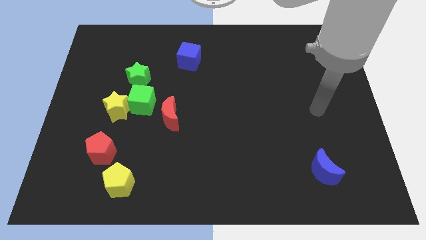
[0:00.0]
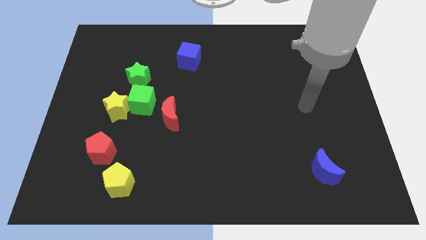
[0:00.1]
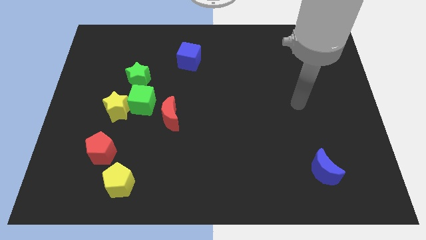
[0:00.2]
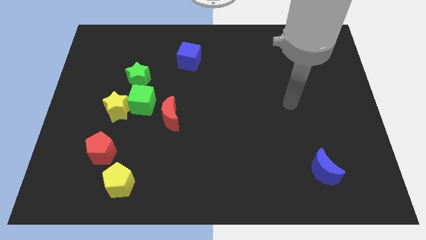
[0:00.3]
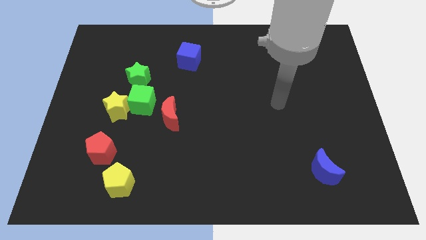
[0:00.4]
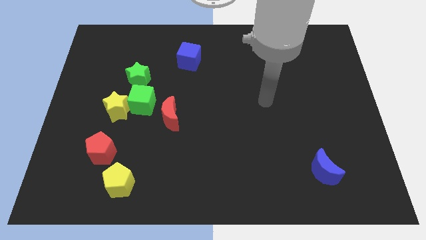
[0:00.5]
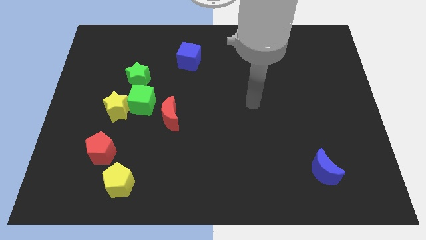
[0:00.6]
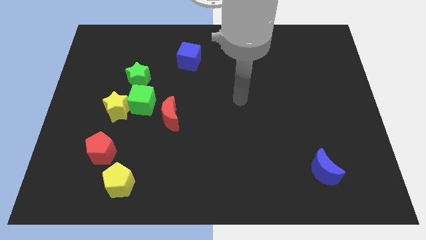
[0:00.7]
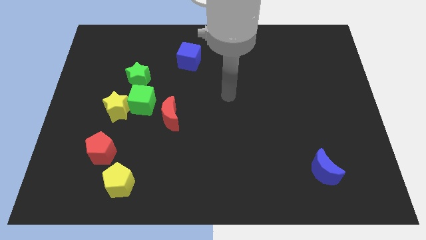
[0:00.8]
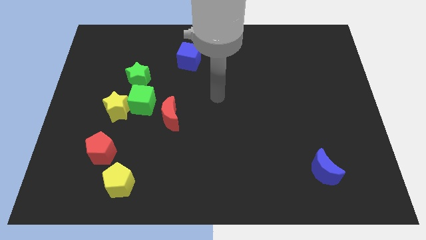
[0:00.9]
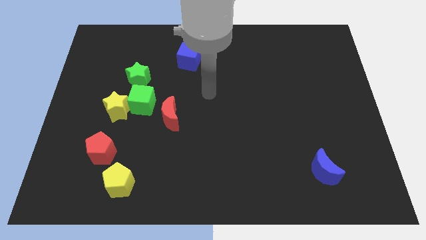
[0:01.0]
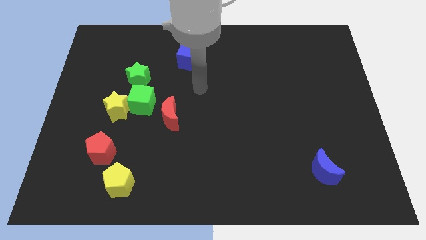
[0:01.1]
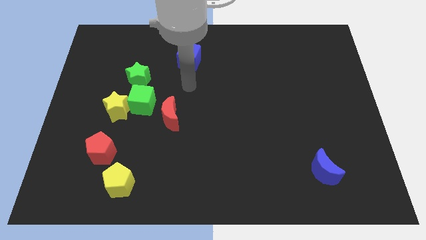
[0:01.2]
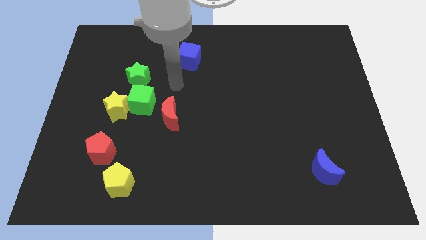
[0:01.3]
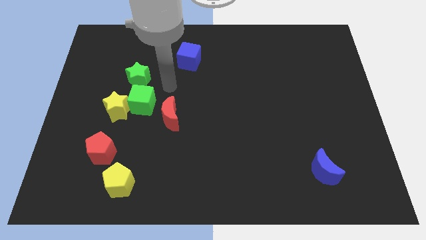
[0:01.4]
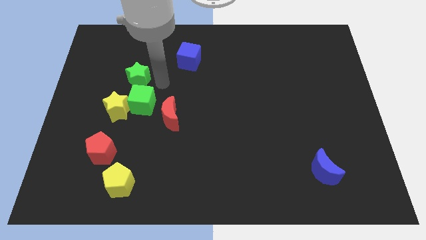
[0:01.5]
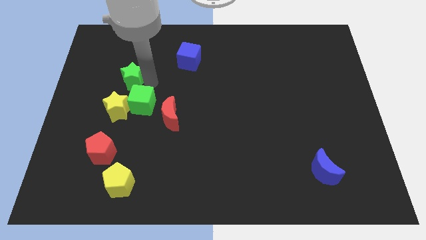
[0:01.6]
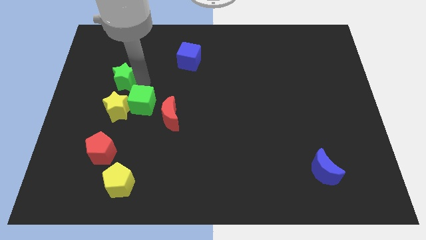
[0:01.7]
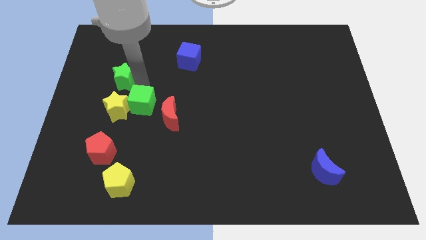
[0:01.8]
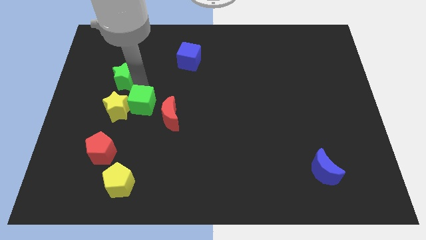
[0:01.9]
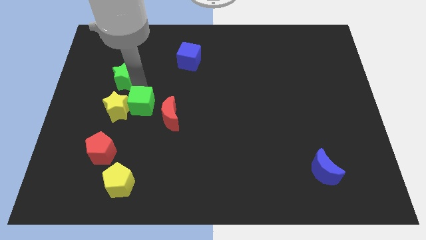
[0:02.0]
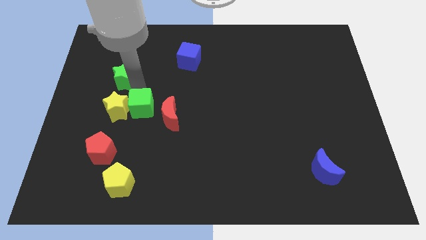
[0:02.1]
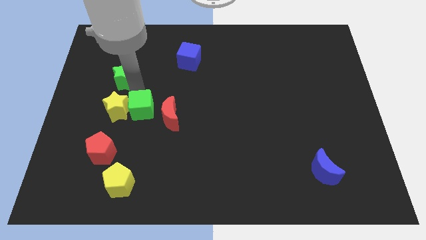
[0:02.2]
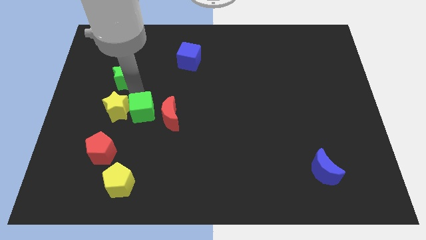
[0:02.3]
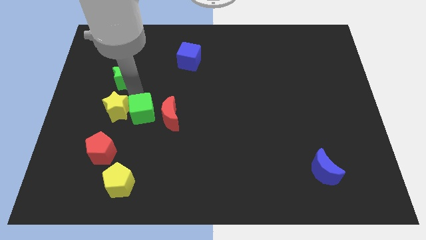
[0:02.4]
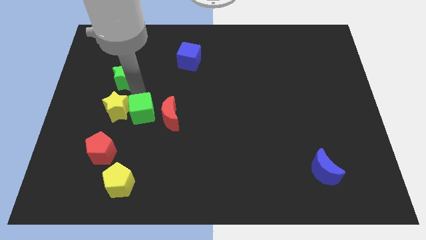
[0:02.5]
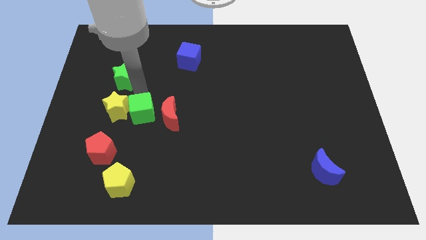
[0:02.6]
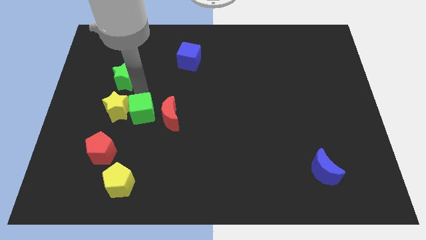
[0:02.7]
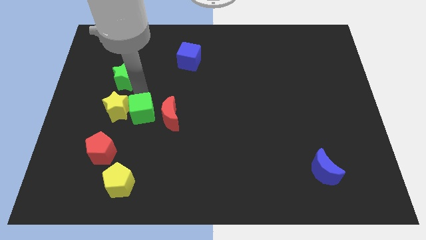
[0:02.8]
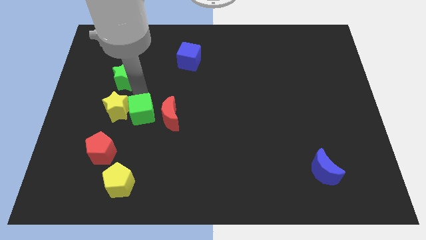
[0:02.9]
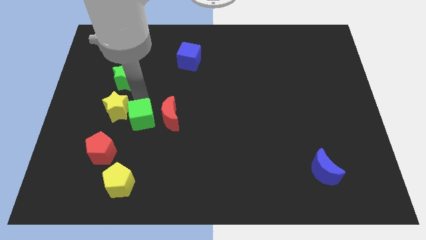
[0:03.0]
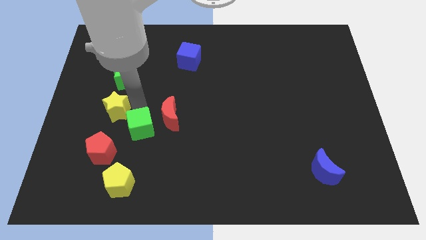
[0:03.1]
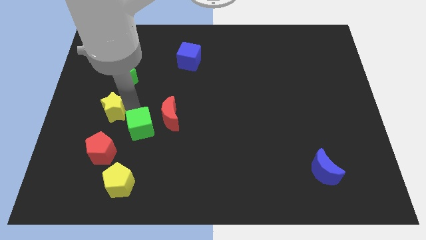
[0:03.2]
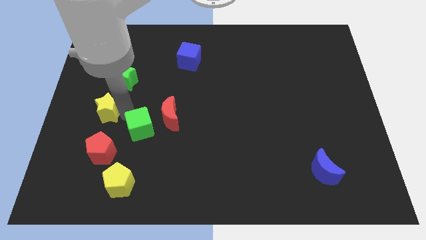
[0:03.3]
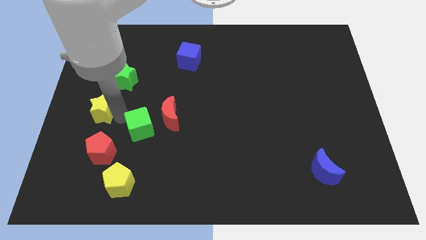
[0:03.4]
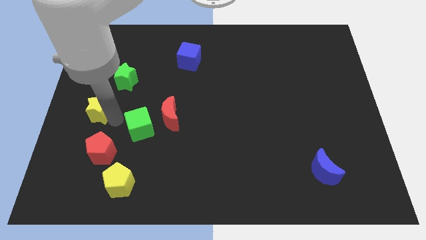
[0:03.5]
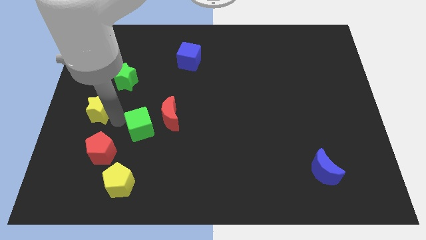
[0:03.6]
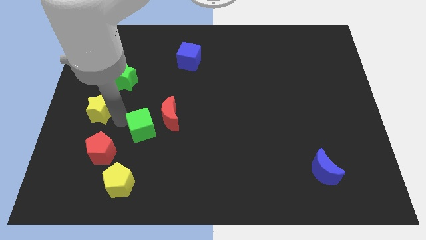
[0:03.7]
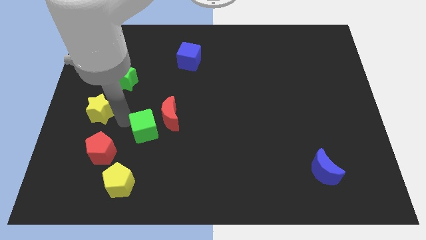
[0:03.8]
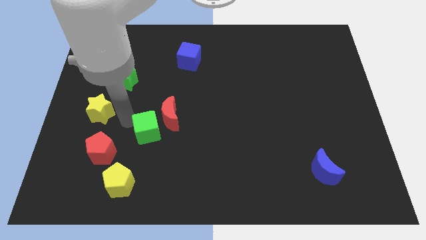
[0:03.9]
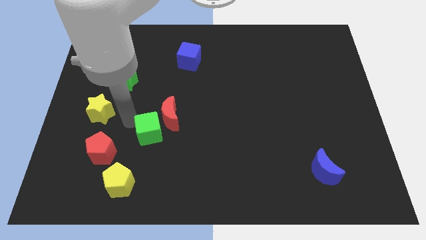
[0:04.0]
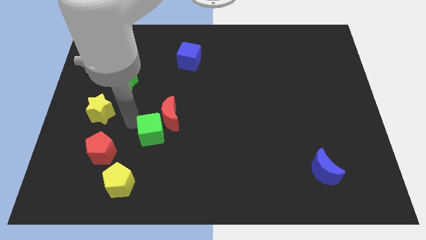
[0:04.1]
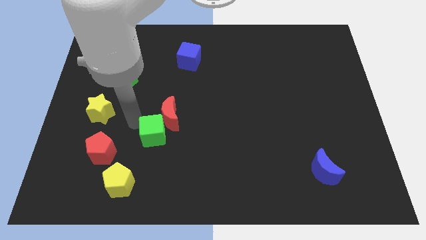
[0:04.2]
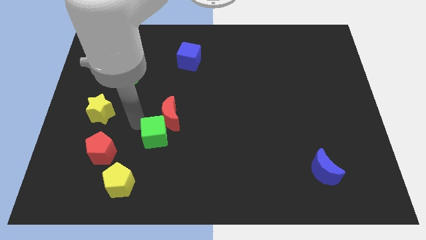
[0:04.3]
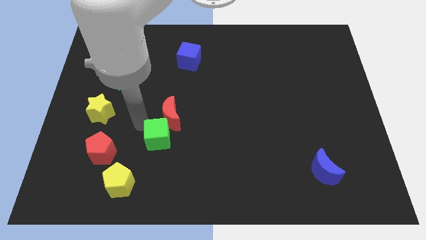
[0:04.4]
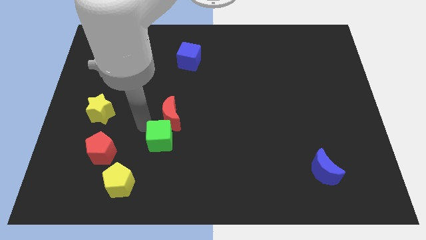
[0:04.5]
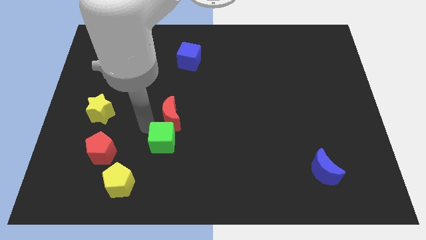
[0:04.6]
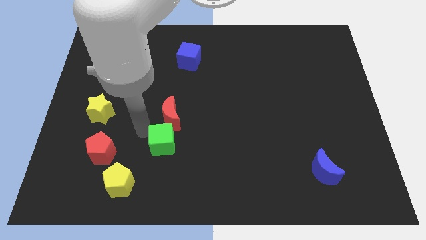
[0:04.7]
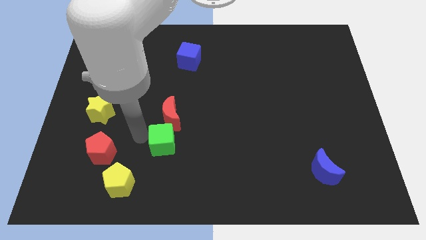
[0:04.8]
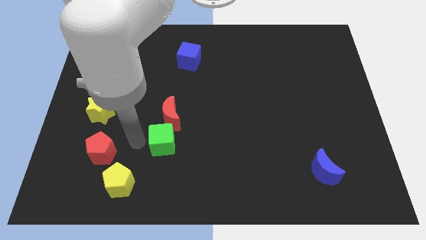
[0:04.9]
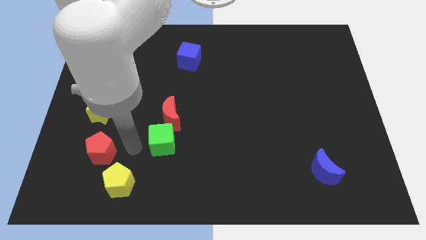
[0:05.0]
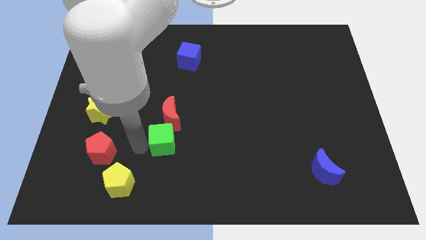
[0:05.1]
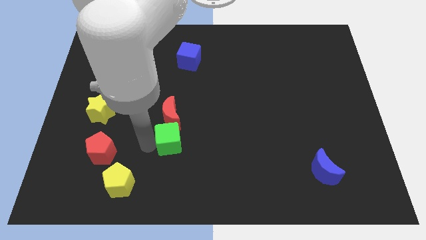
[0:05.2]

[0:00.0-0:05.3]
put the green cube diagonally down and to the right of the red moon
